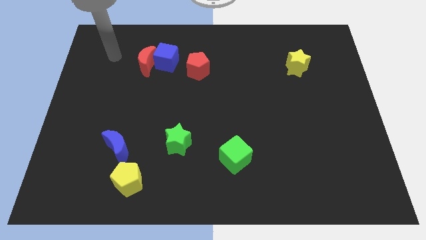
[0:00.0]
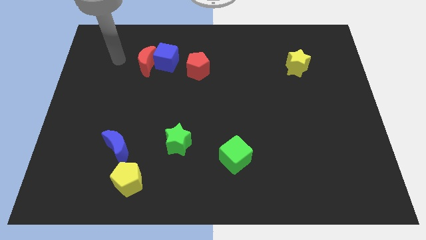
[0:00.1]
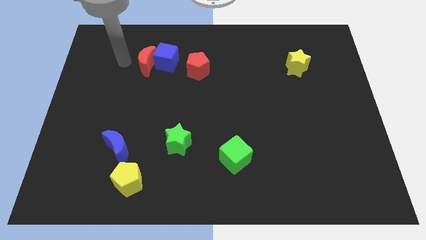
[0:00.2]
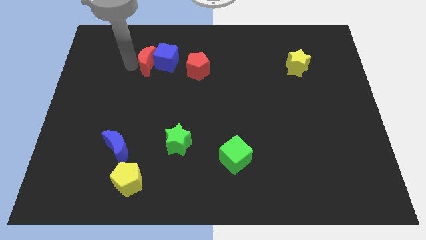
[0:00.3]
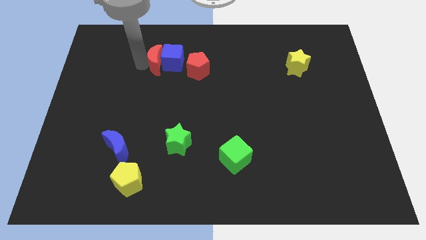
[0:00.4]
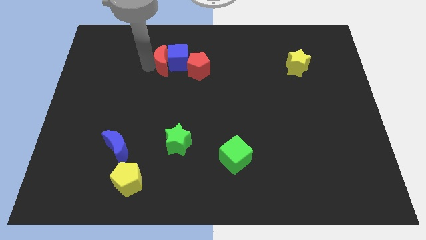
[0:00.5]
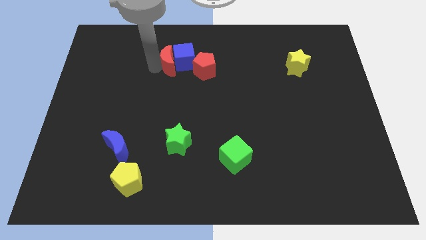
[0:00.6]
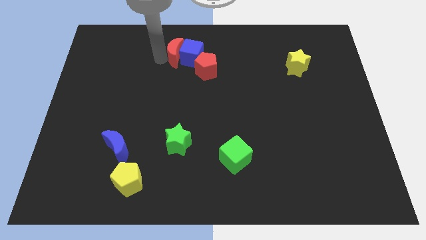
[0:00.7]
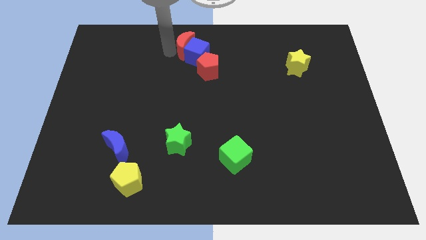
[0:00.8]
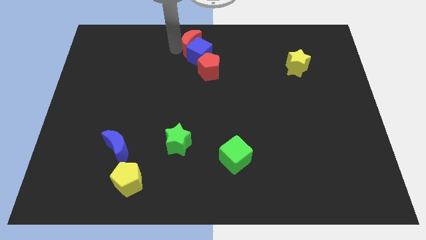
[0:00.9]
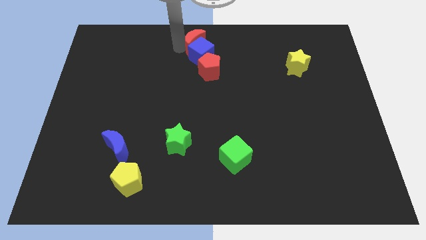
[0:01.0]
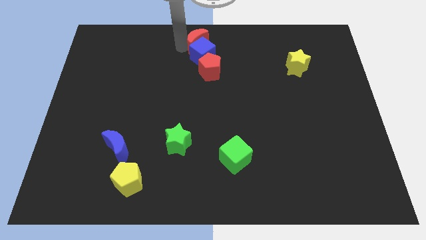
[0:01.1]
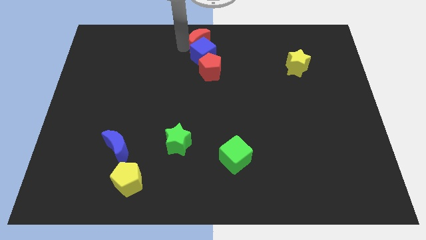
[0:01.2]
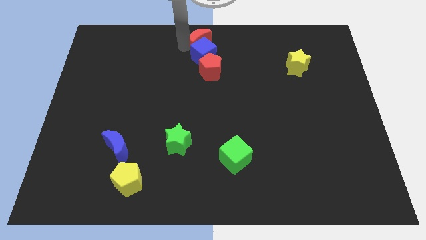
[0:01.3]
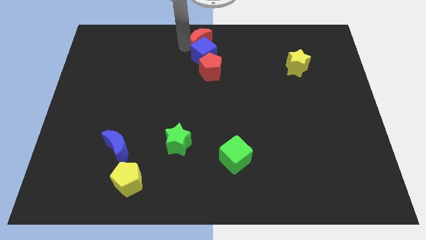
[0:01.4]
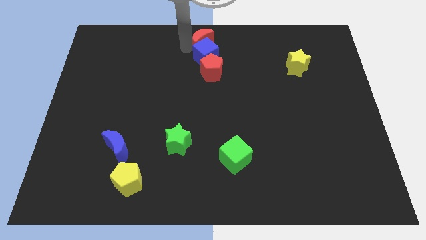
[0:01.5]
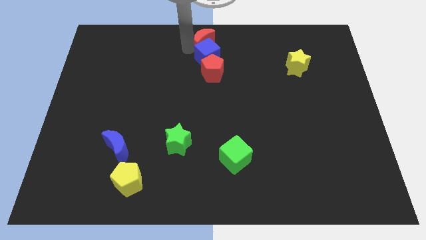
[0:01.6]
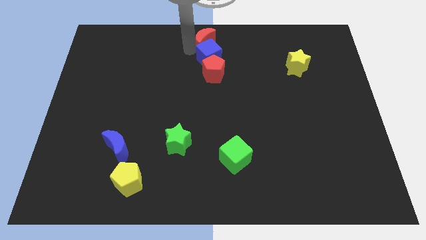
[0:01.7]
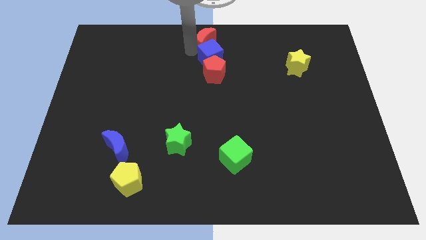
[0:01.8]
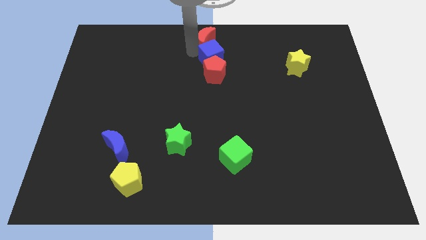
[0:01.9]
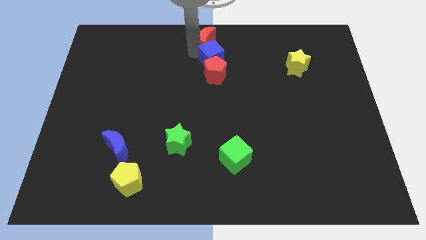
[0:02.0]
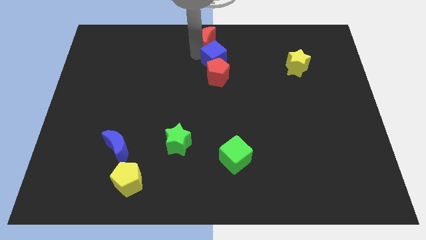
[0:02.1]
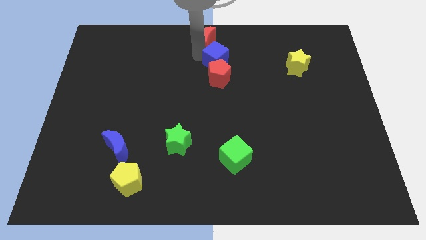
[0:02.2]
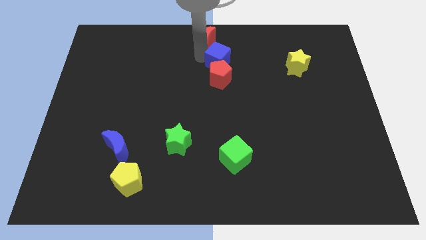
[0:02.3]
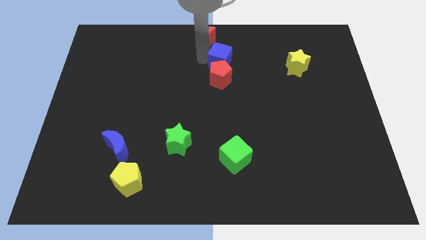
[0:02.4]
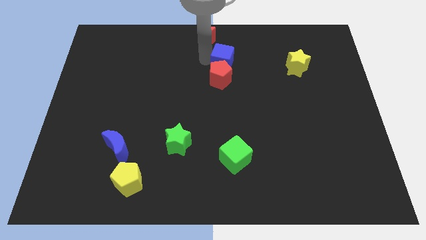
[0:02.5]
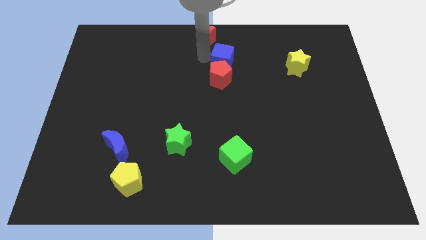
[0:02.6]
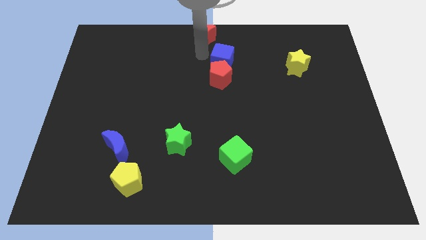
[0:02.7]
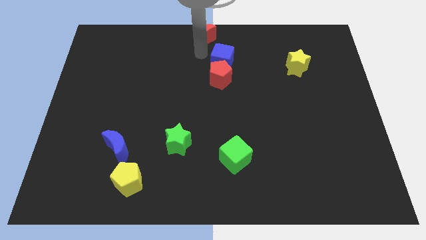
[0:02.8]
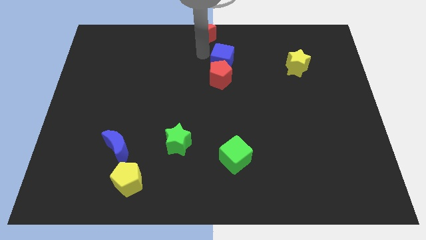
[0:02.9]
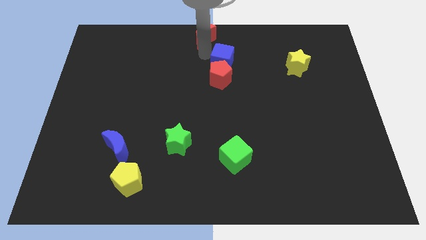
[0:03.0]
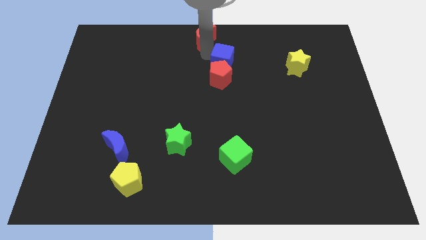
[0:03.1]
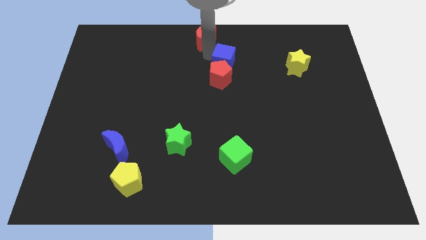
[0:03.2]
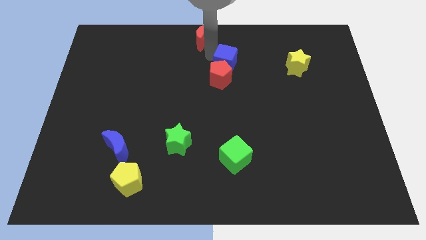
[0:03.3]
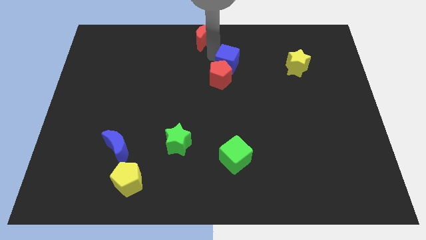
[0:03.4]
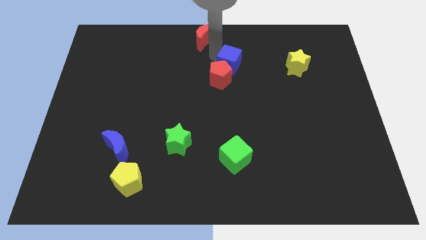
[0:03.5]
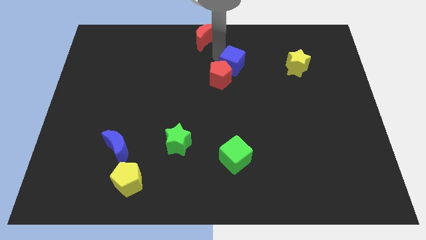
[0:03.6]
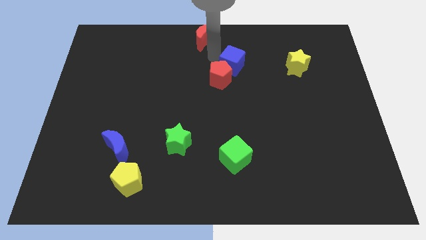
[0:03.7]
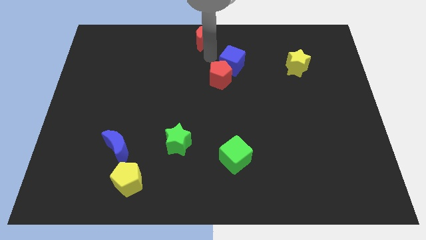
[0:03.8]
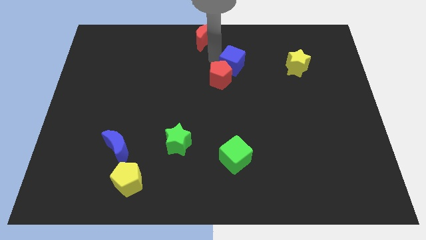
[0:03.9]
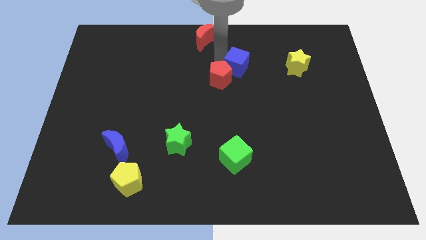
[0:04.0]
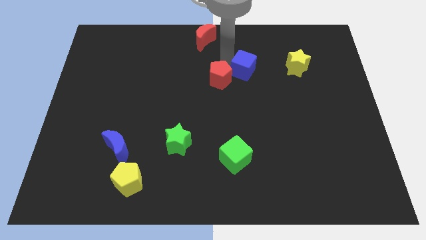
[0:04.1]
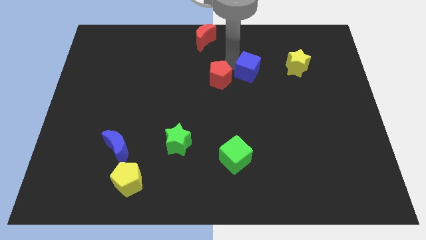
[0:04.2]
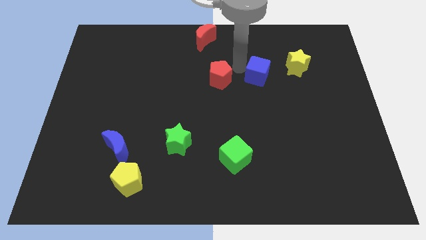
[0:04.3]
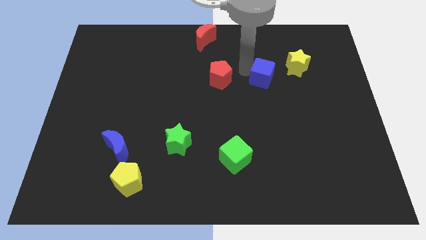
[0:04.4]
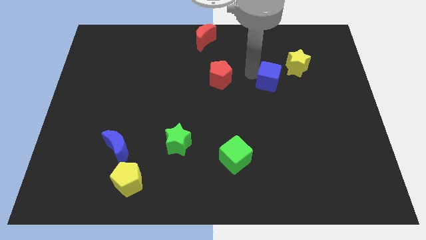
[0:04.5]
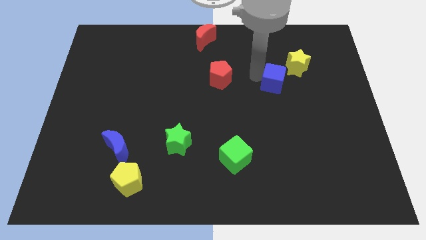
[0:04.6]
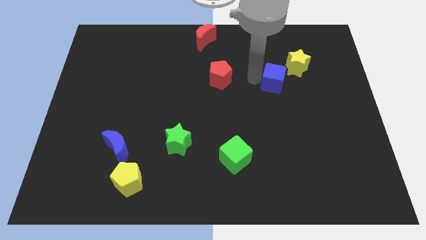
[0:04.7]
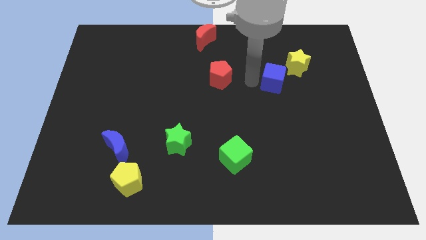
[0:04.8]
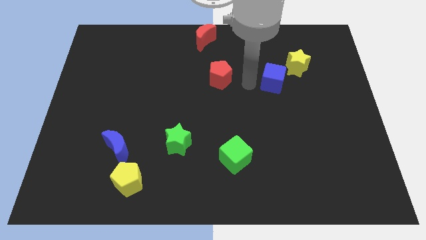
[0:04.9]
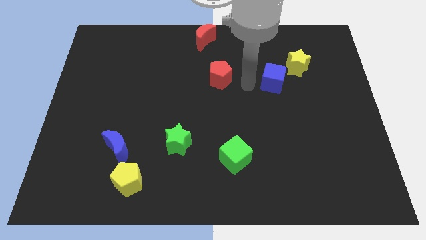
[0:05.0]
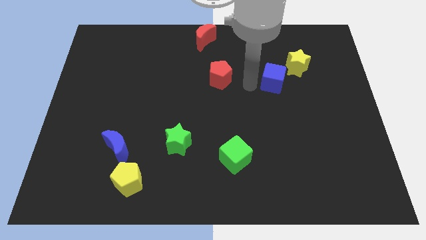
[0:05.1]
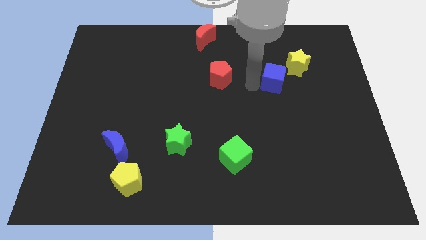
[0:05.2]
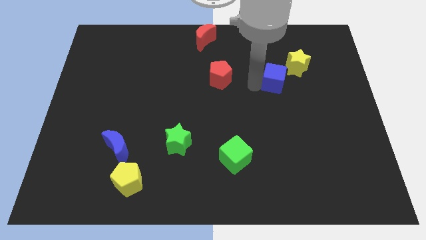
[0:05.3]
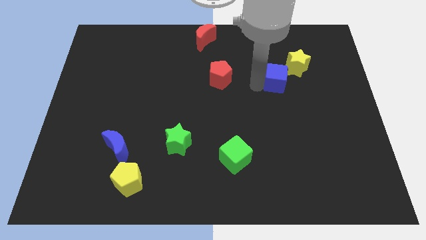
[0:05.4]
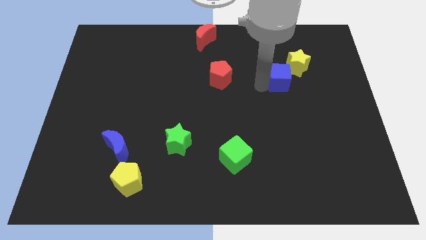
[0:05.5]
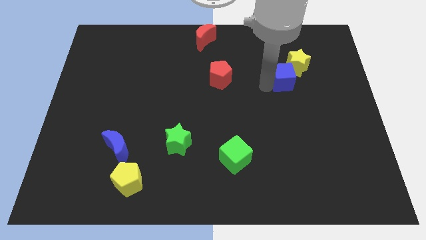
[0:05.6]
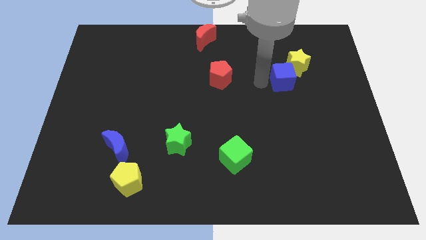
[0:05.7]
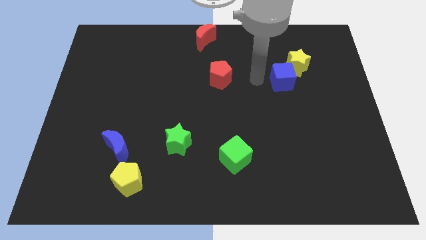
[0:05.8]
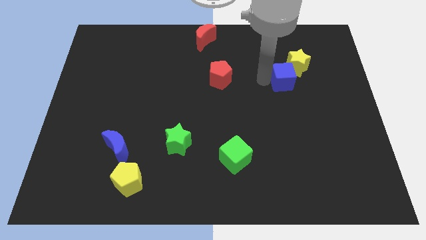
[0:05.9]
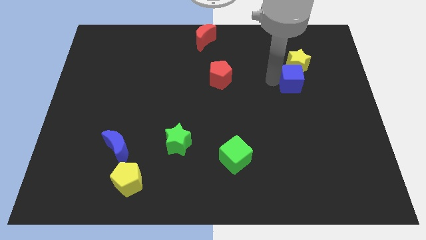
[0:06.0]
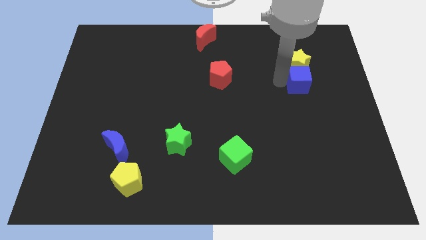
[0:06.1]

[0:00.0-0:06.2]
move the blue cube to the bottom right side of the yellow star

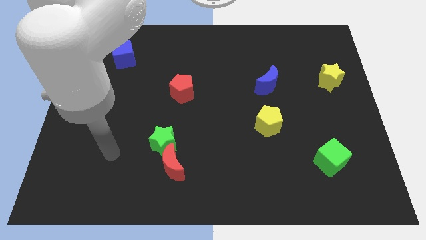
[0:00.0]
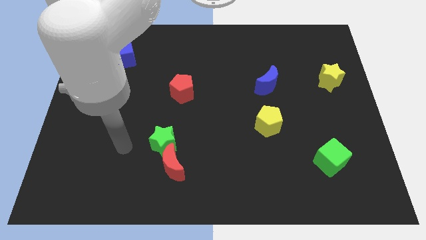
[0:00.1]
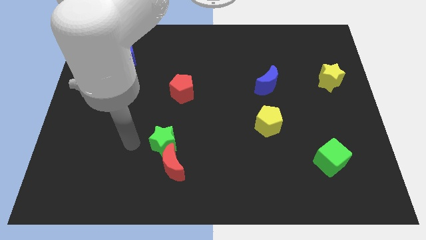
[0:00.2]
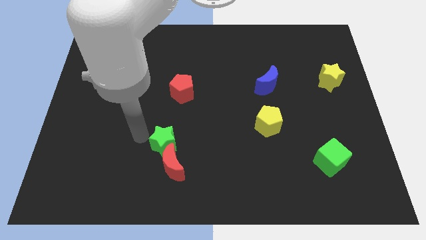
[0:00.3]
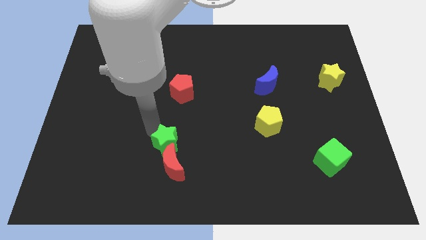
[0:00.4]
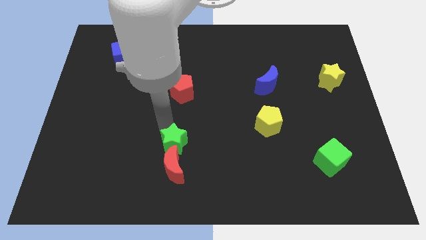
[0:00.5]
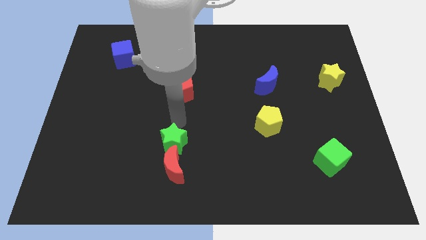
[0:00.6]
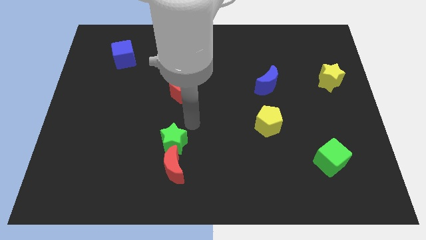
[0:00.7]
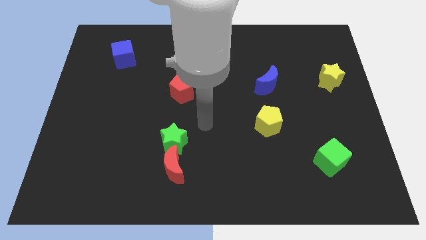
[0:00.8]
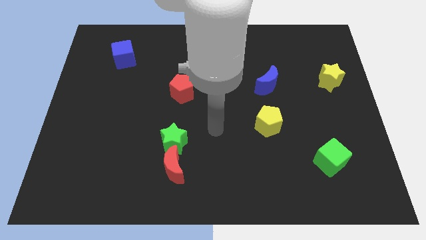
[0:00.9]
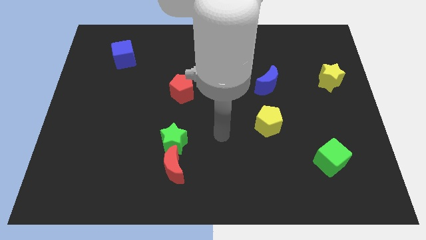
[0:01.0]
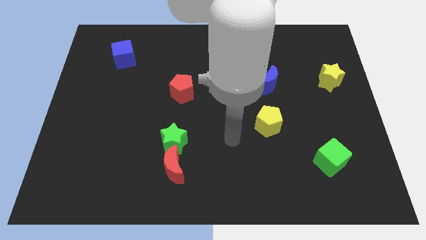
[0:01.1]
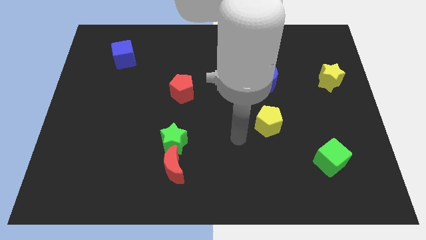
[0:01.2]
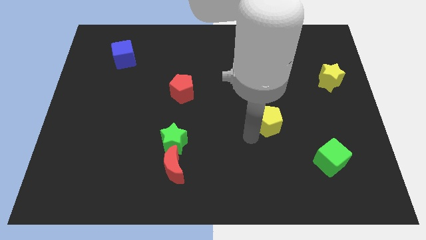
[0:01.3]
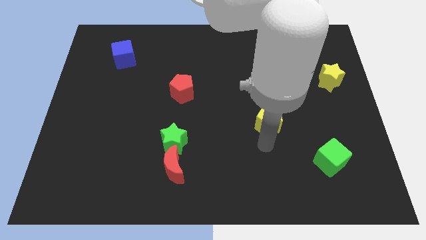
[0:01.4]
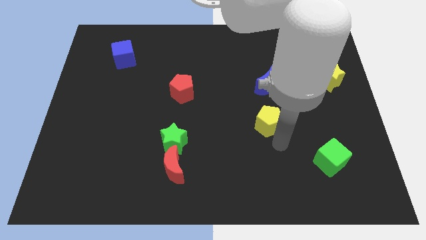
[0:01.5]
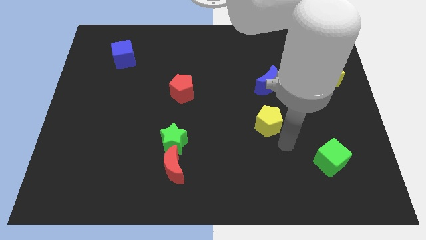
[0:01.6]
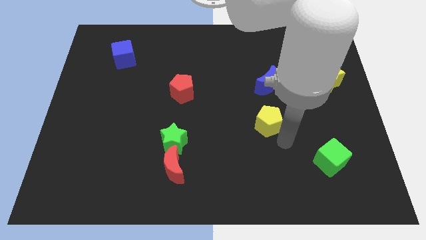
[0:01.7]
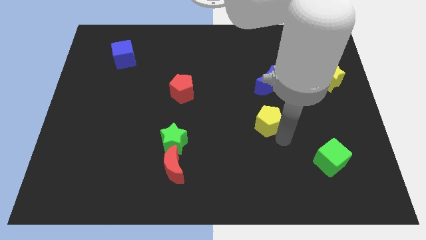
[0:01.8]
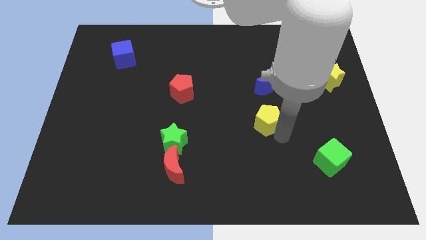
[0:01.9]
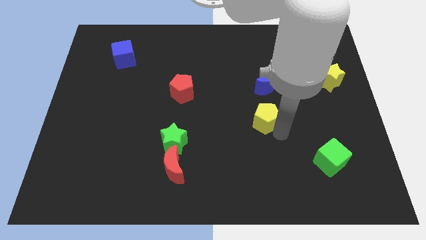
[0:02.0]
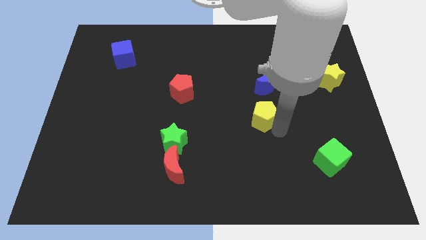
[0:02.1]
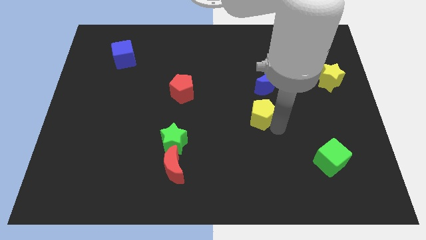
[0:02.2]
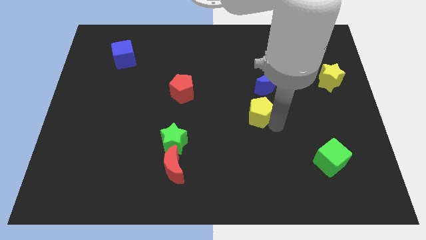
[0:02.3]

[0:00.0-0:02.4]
put the yellow pentagon diagonally down and to the left of the blue moon
